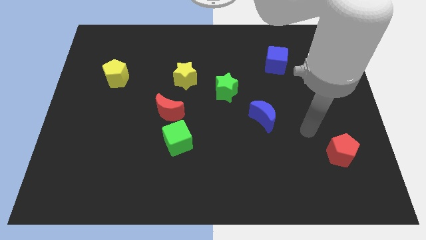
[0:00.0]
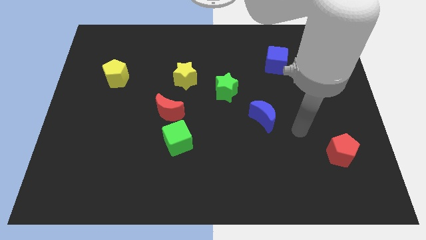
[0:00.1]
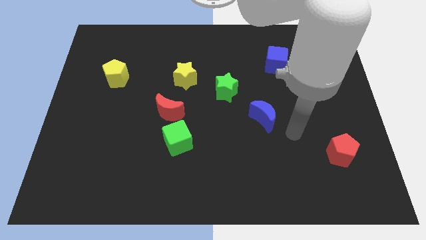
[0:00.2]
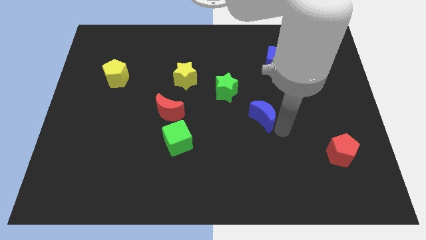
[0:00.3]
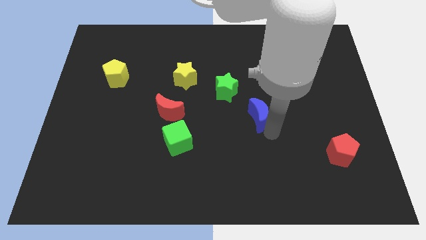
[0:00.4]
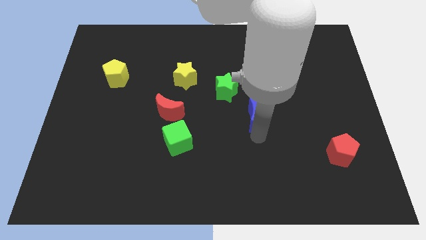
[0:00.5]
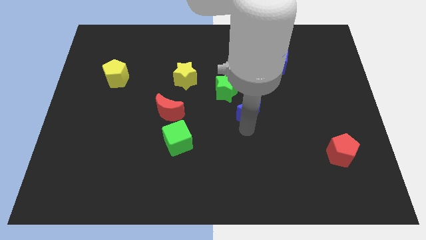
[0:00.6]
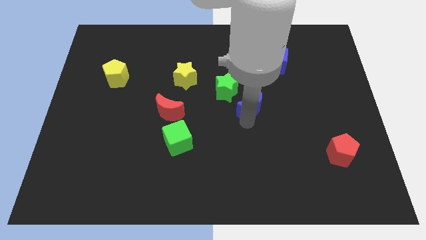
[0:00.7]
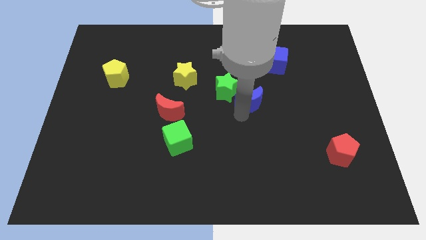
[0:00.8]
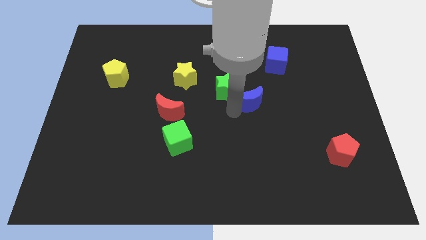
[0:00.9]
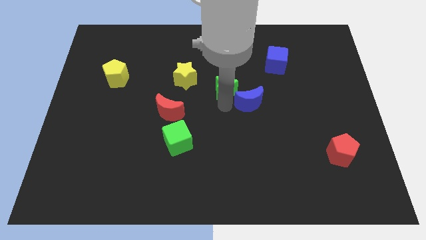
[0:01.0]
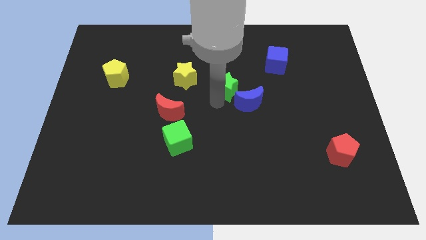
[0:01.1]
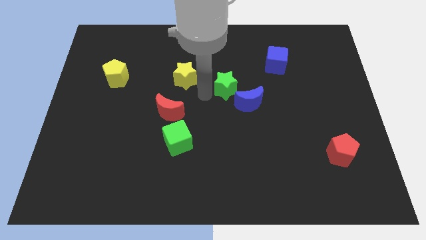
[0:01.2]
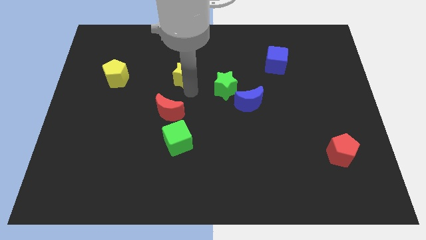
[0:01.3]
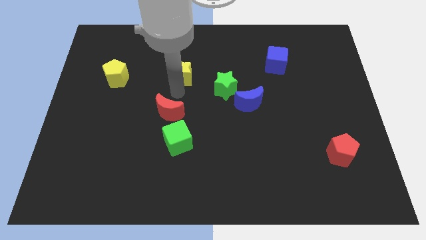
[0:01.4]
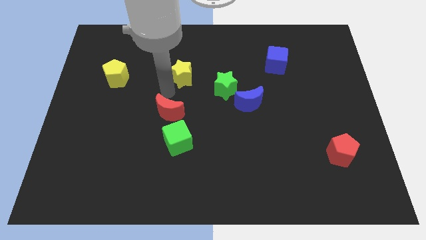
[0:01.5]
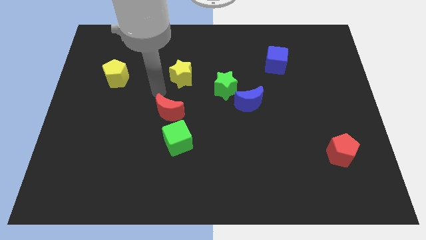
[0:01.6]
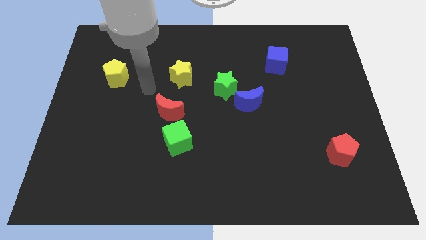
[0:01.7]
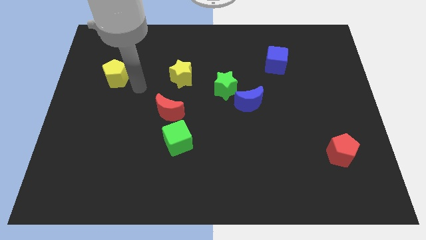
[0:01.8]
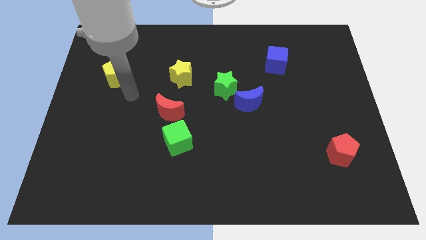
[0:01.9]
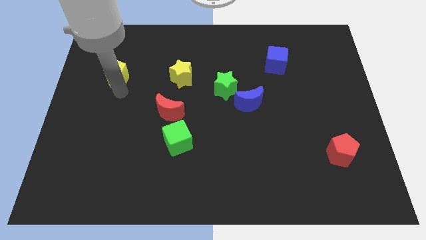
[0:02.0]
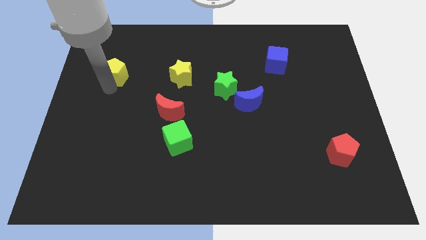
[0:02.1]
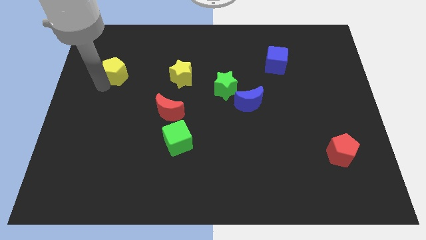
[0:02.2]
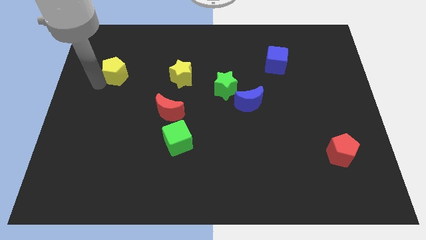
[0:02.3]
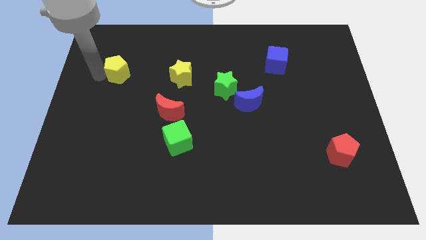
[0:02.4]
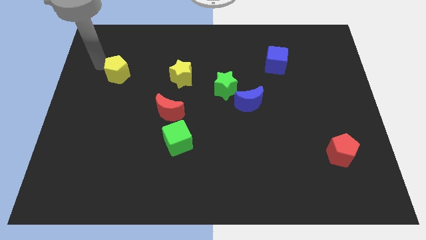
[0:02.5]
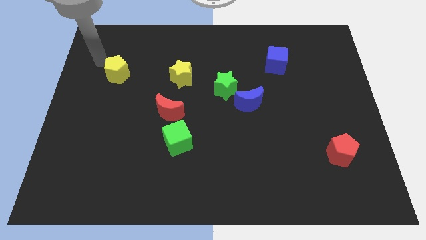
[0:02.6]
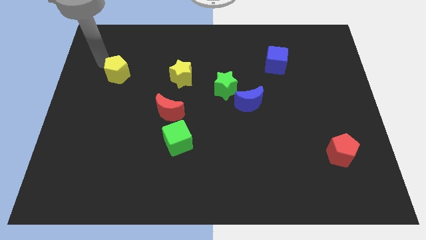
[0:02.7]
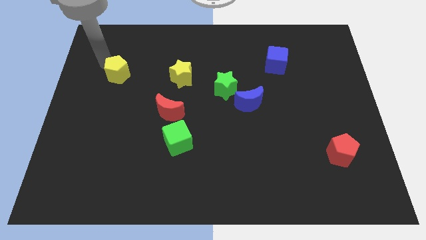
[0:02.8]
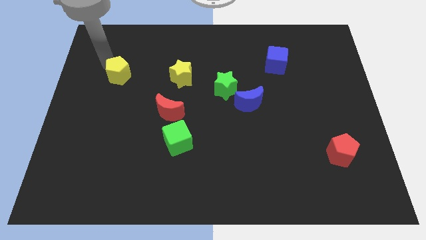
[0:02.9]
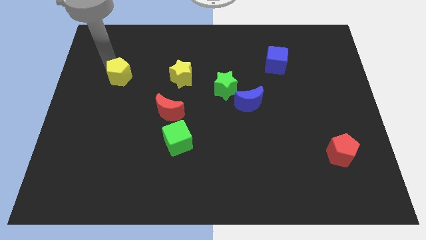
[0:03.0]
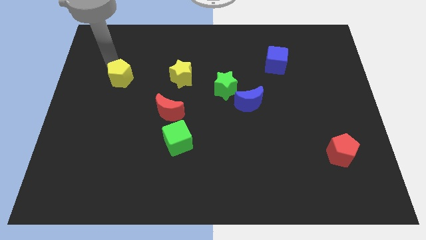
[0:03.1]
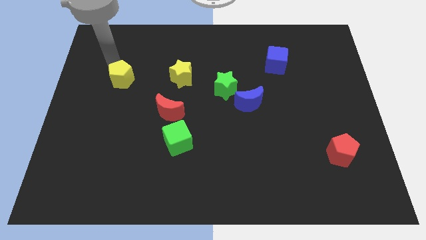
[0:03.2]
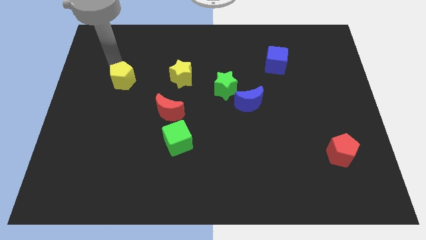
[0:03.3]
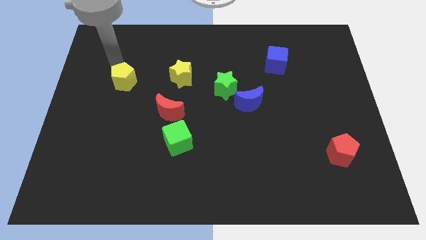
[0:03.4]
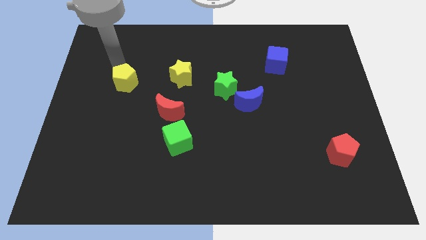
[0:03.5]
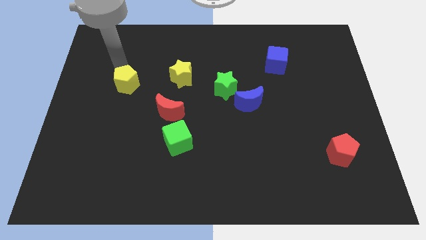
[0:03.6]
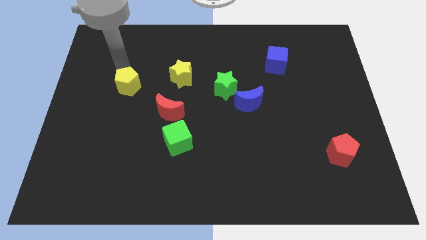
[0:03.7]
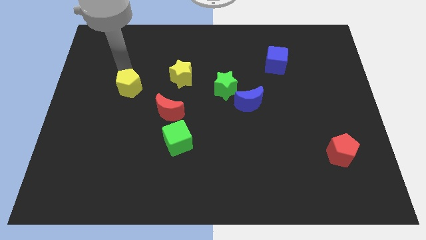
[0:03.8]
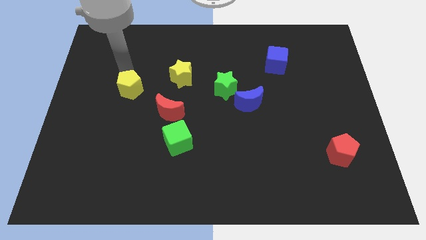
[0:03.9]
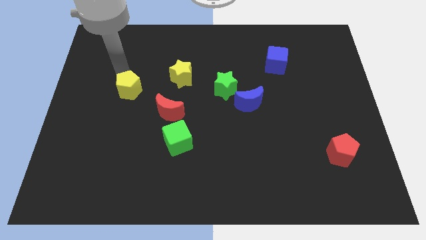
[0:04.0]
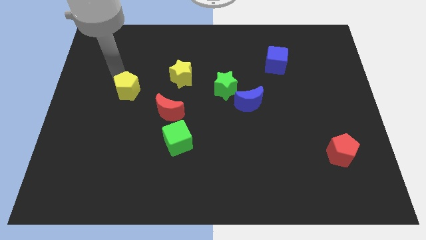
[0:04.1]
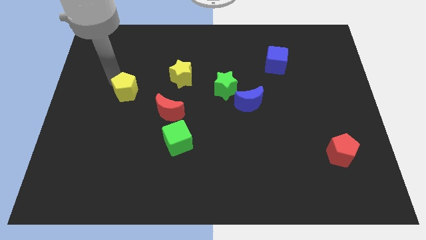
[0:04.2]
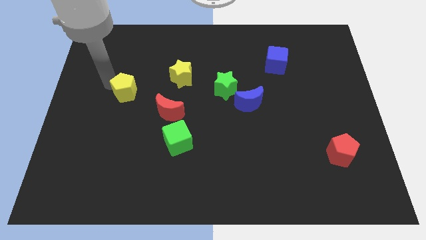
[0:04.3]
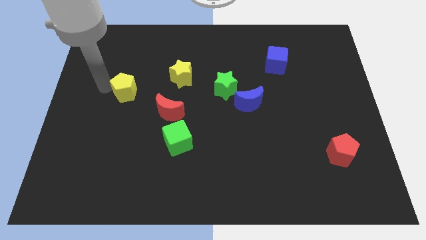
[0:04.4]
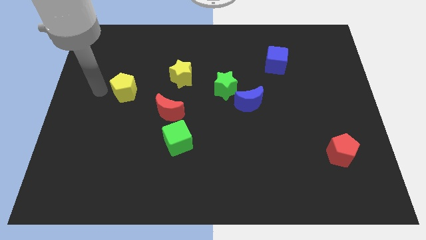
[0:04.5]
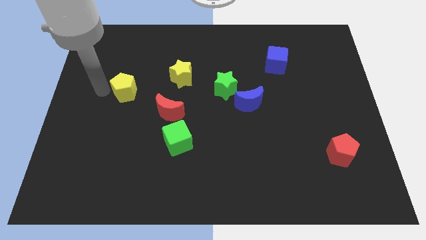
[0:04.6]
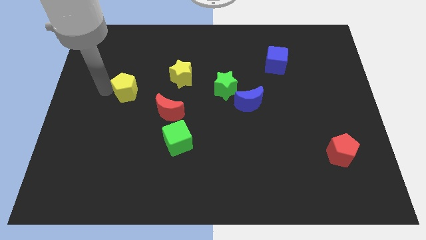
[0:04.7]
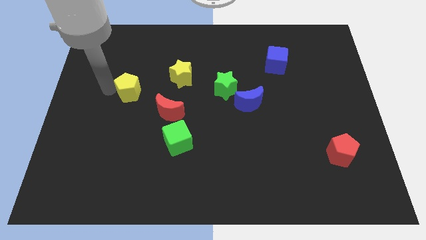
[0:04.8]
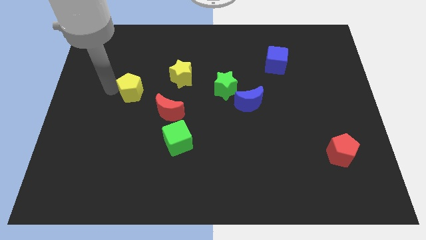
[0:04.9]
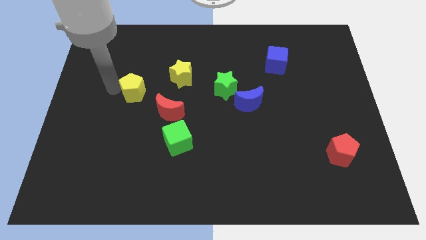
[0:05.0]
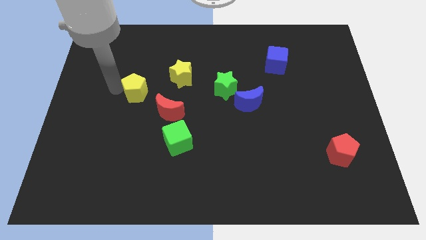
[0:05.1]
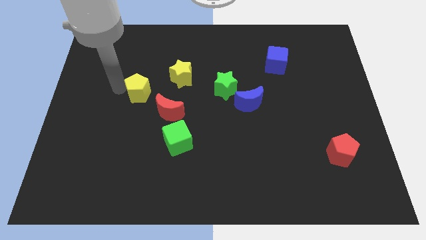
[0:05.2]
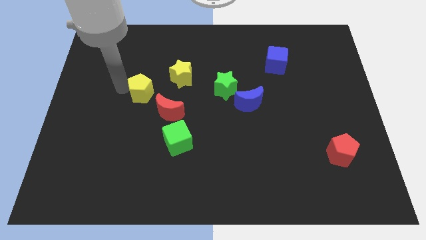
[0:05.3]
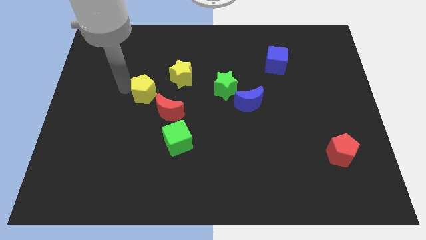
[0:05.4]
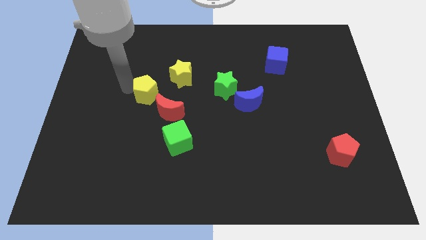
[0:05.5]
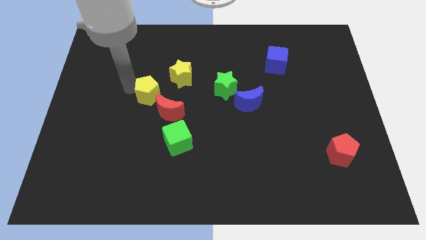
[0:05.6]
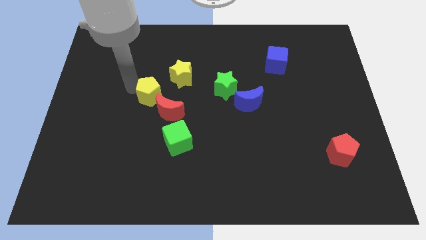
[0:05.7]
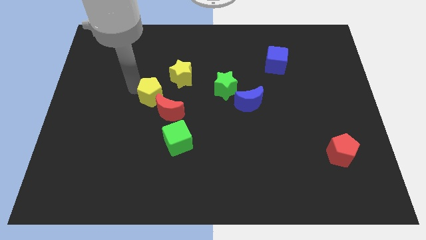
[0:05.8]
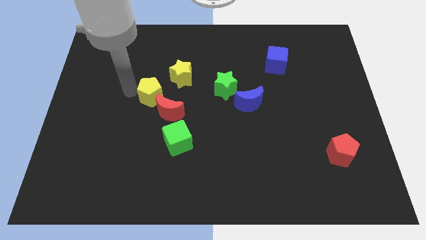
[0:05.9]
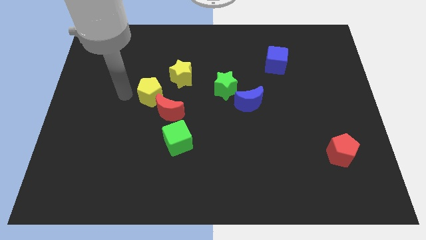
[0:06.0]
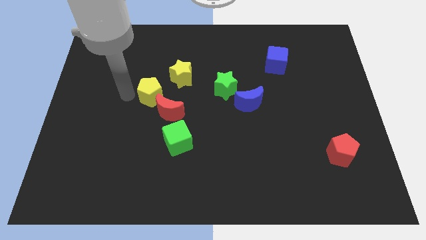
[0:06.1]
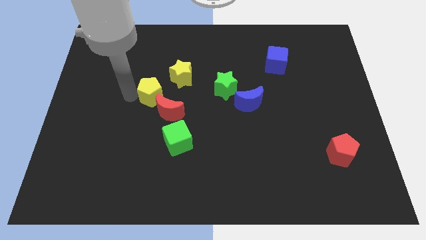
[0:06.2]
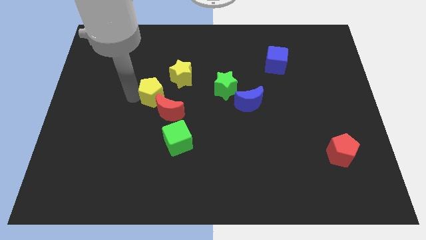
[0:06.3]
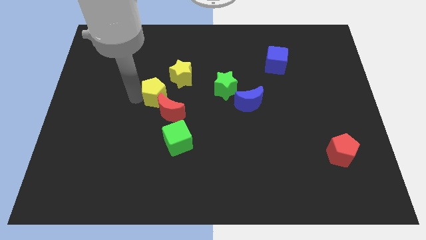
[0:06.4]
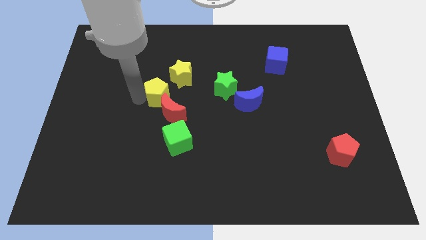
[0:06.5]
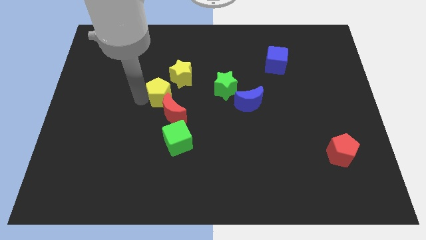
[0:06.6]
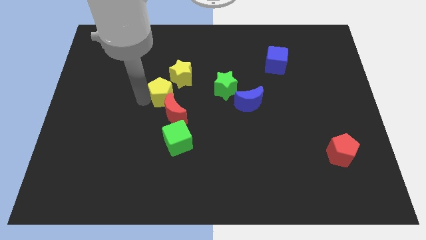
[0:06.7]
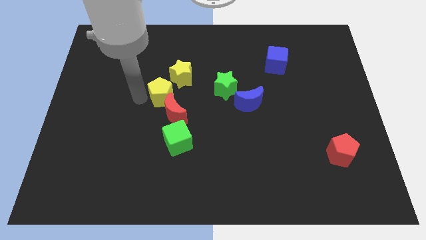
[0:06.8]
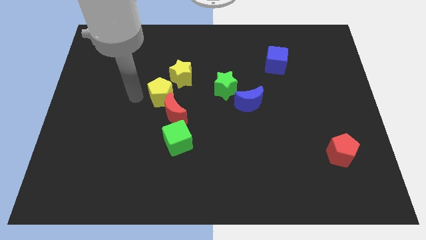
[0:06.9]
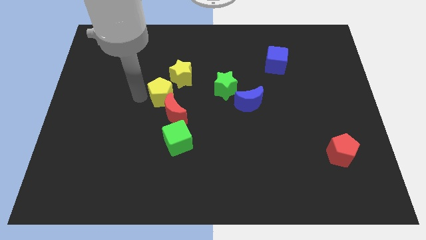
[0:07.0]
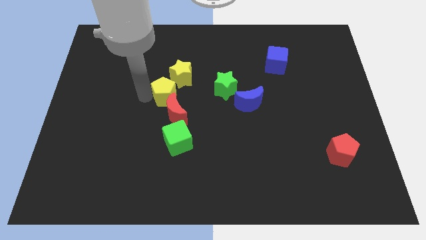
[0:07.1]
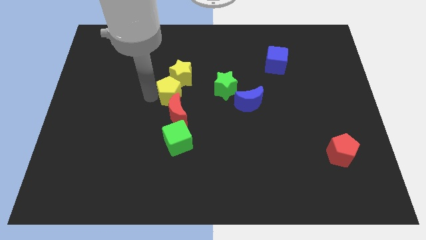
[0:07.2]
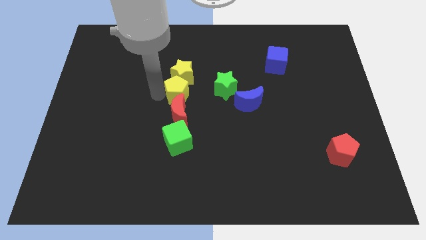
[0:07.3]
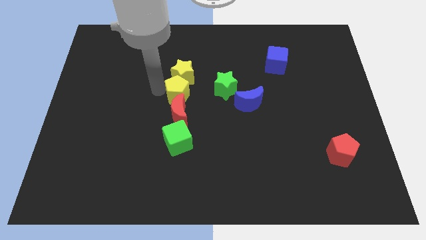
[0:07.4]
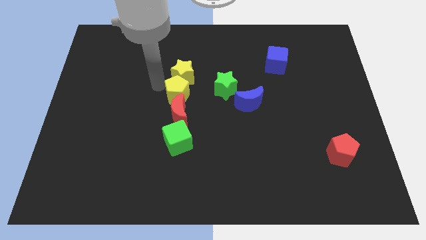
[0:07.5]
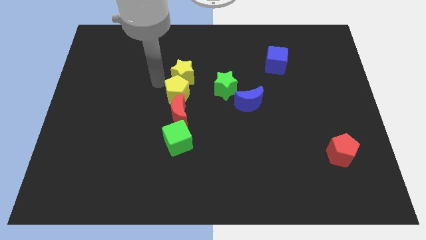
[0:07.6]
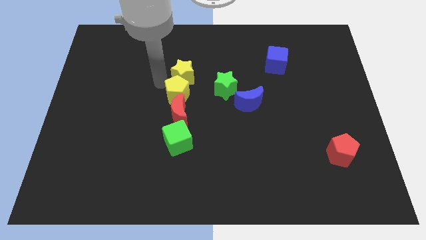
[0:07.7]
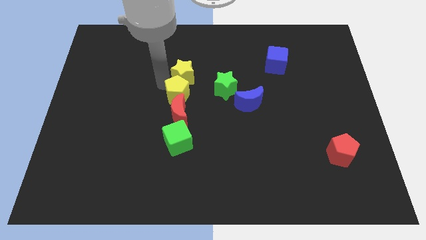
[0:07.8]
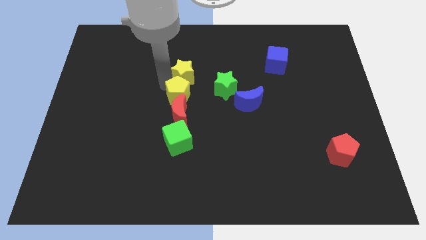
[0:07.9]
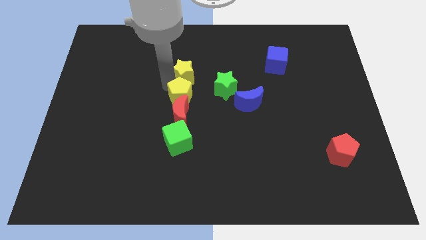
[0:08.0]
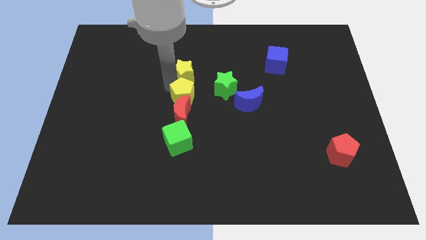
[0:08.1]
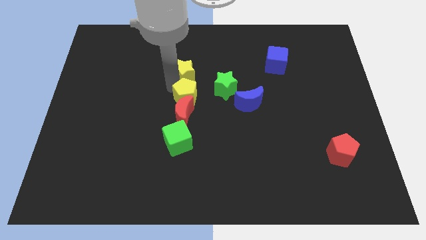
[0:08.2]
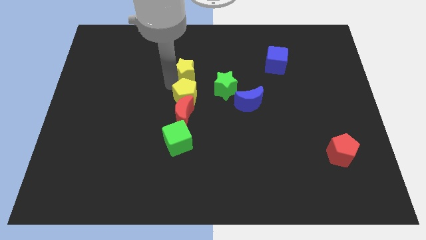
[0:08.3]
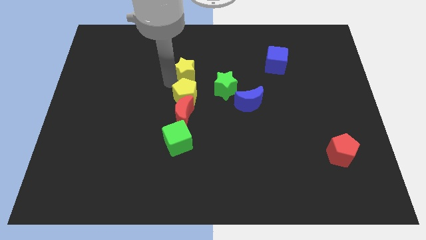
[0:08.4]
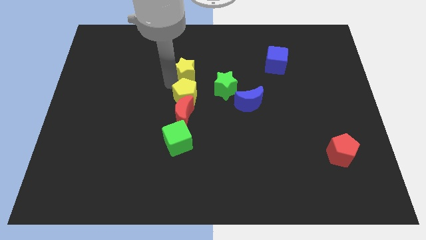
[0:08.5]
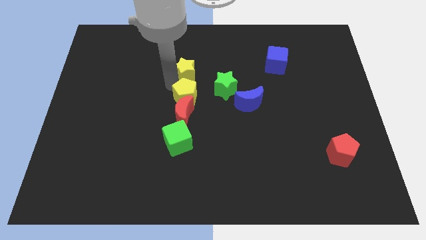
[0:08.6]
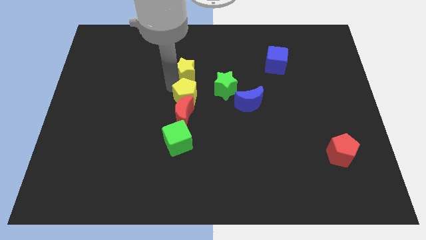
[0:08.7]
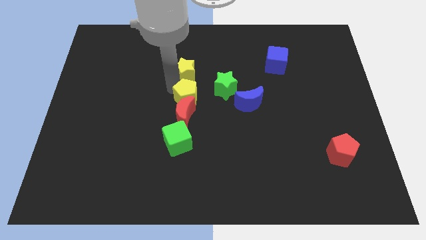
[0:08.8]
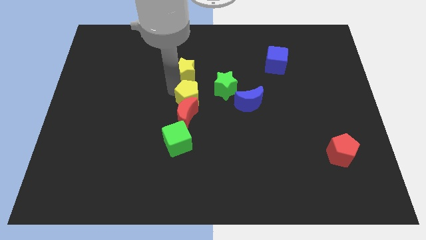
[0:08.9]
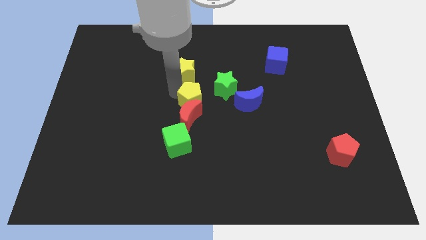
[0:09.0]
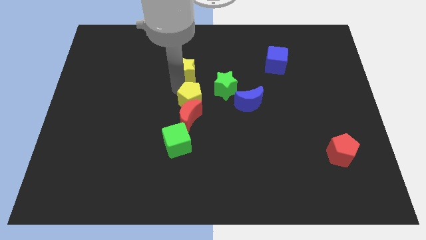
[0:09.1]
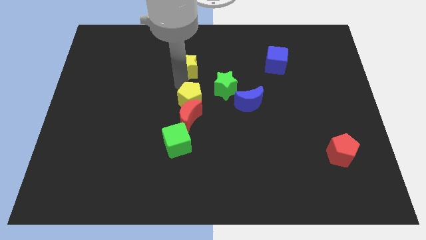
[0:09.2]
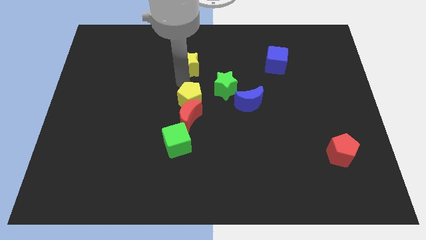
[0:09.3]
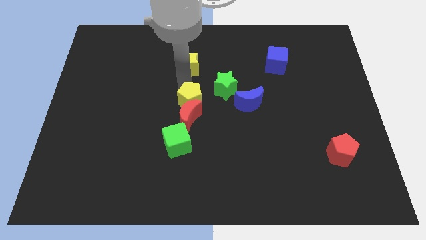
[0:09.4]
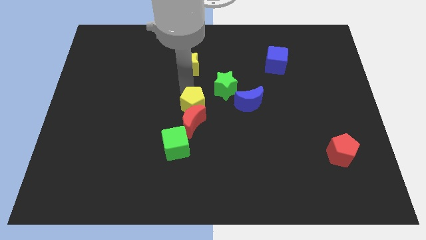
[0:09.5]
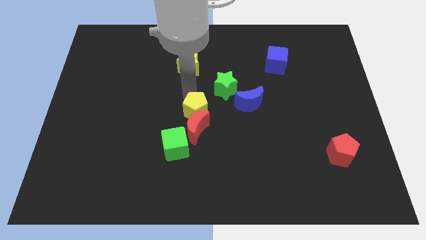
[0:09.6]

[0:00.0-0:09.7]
move the yellow pentagon to the top right side of the green cube
